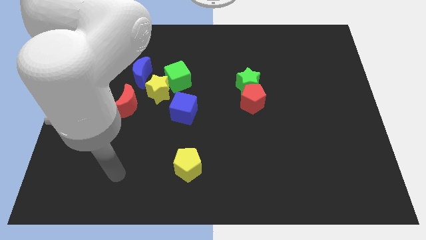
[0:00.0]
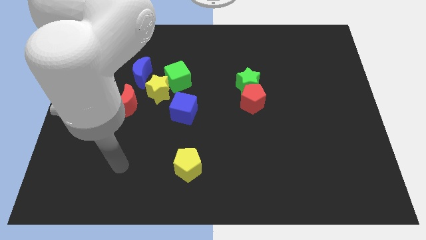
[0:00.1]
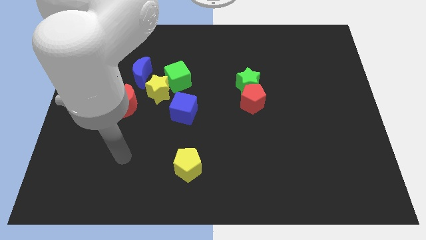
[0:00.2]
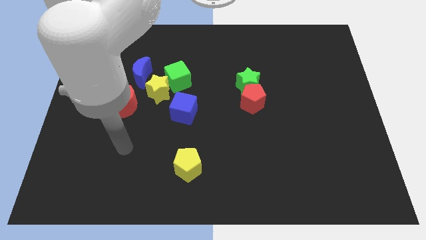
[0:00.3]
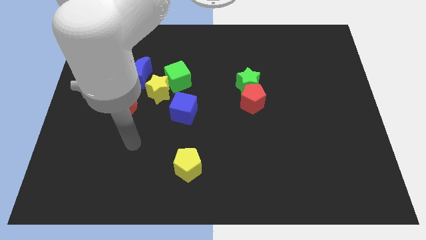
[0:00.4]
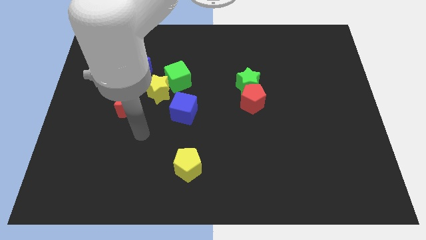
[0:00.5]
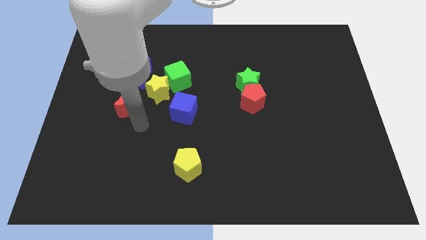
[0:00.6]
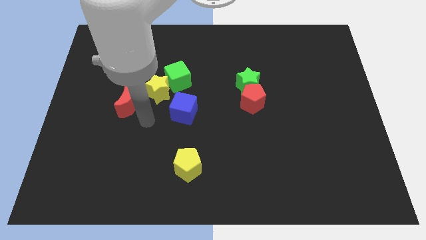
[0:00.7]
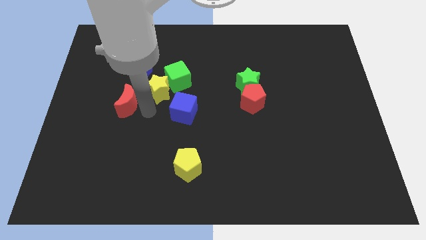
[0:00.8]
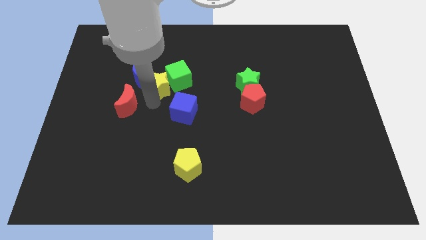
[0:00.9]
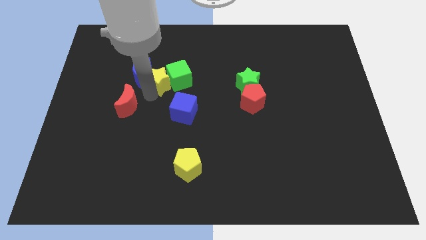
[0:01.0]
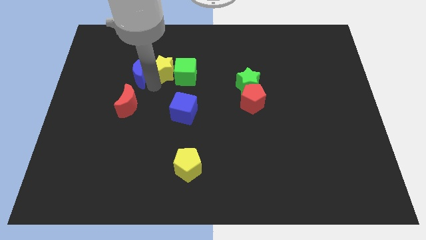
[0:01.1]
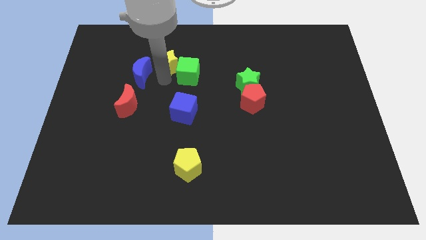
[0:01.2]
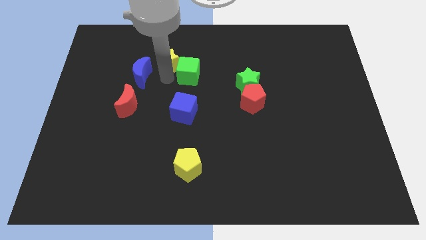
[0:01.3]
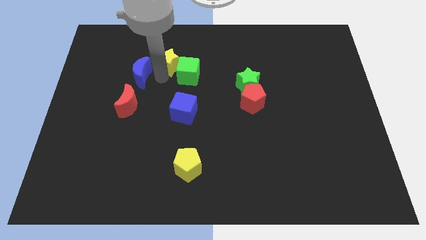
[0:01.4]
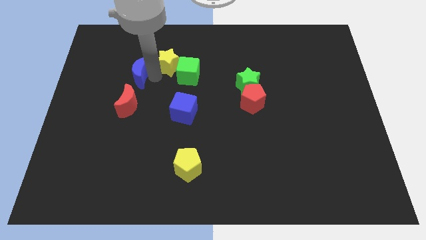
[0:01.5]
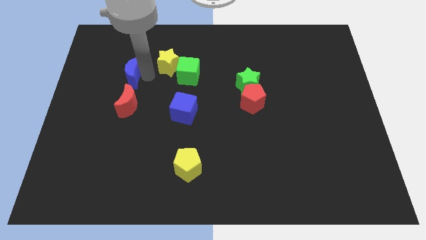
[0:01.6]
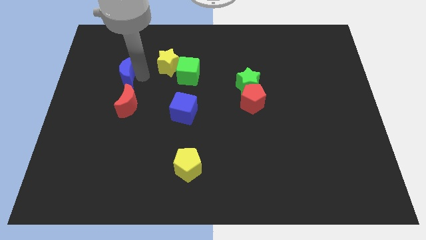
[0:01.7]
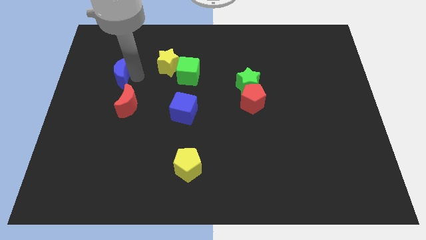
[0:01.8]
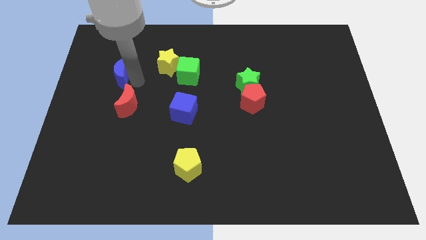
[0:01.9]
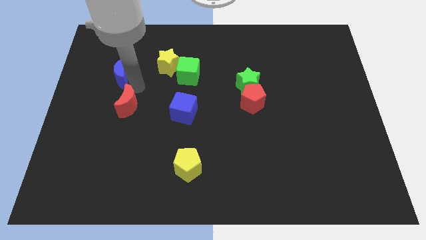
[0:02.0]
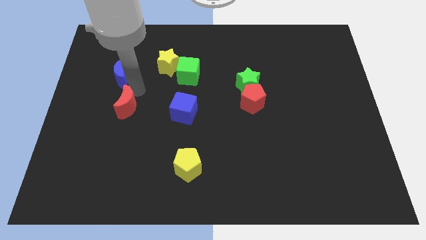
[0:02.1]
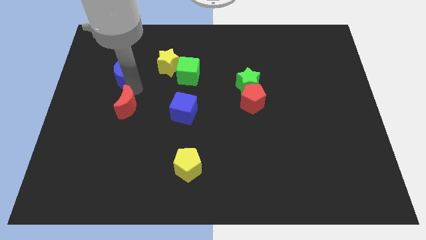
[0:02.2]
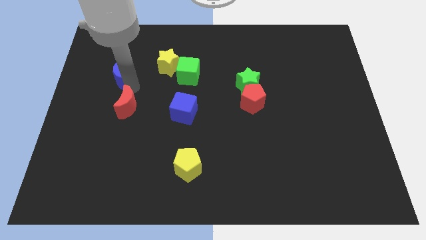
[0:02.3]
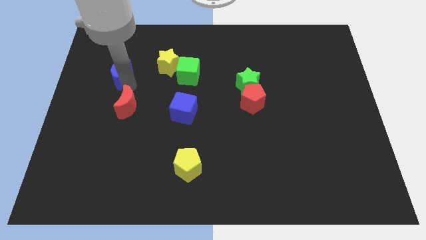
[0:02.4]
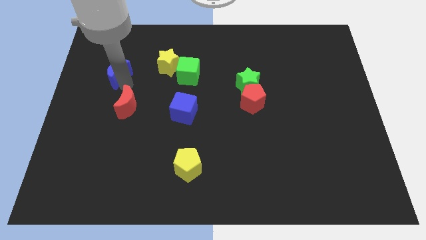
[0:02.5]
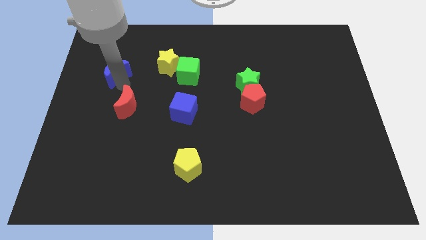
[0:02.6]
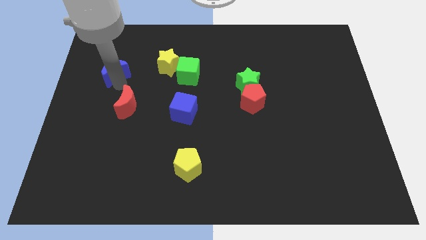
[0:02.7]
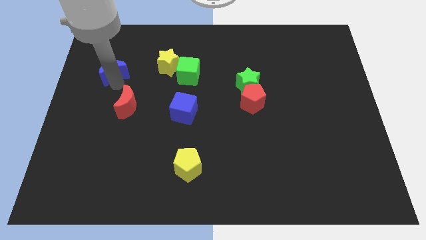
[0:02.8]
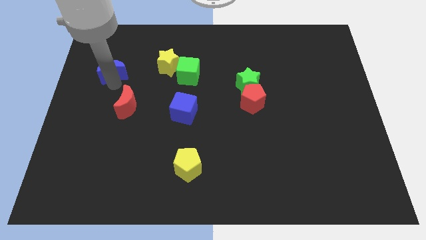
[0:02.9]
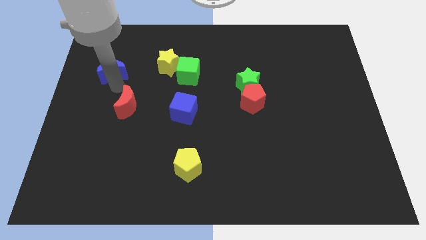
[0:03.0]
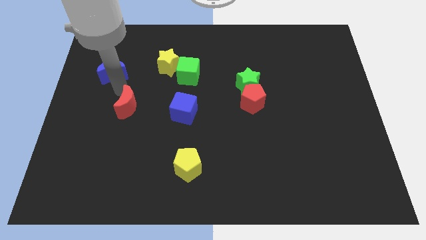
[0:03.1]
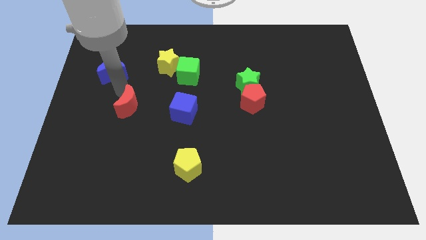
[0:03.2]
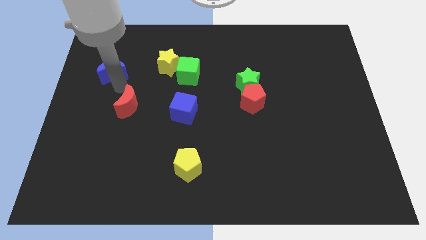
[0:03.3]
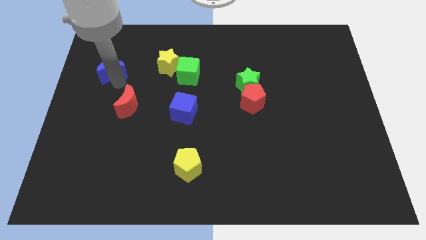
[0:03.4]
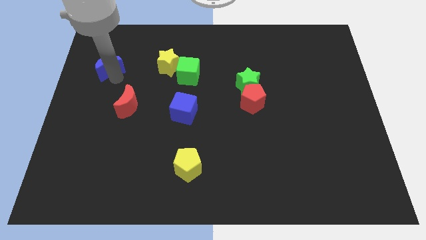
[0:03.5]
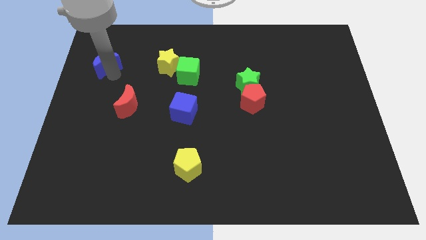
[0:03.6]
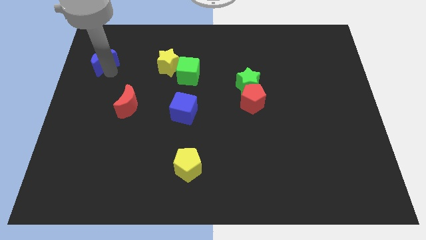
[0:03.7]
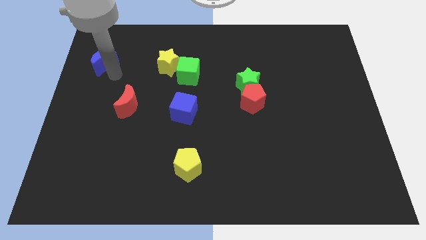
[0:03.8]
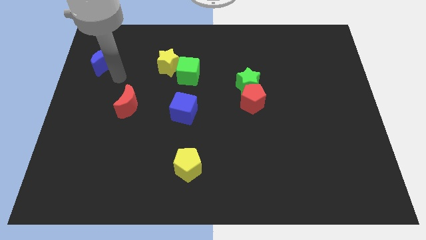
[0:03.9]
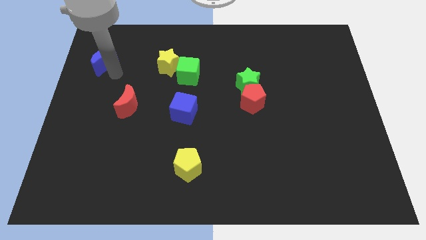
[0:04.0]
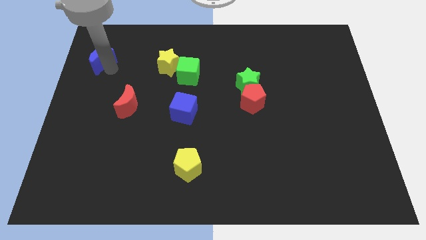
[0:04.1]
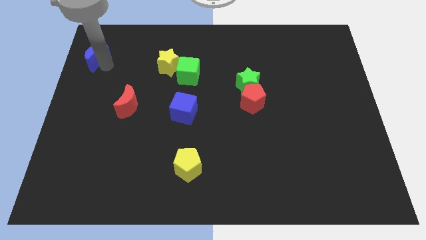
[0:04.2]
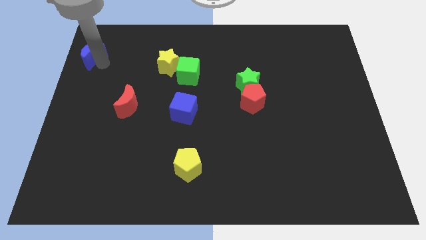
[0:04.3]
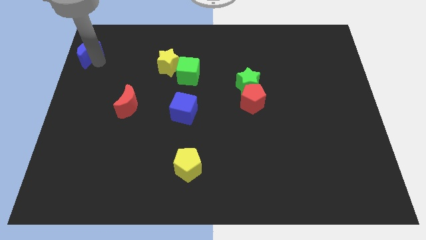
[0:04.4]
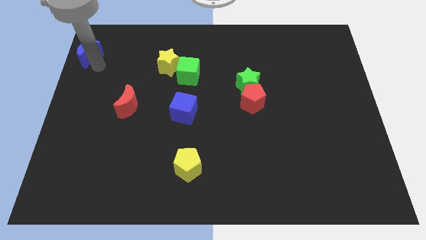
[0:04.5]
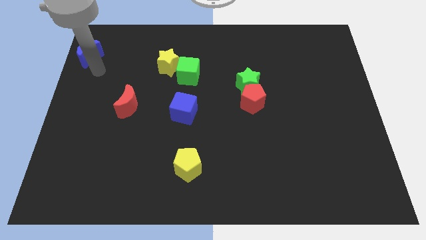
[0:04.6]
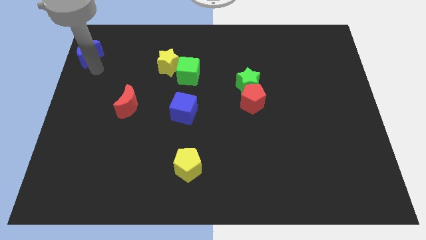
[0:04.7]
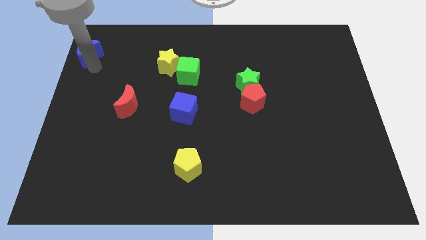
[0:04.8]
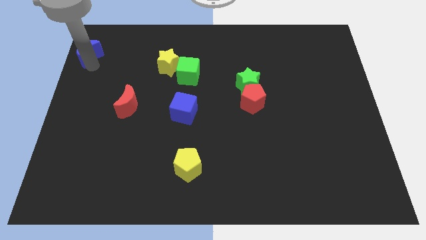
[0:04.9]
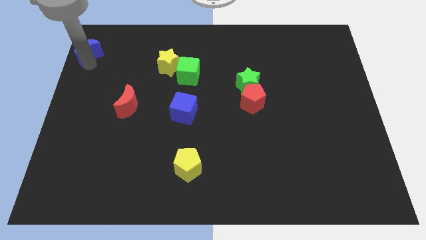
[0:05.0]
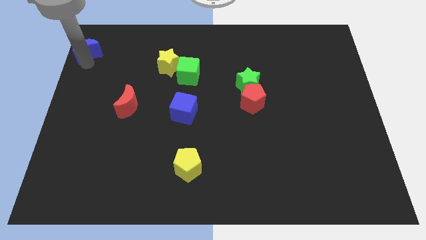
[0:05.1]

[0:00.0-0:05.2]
slide the blue moon to the top left of the board

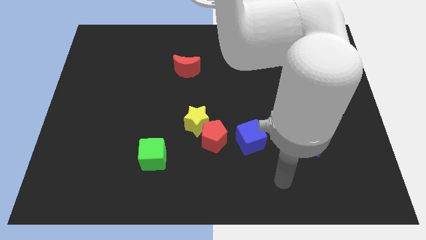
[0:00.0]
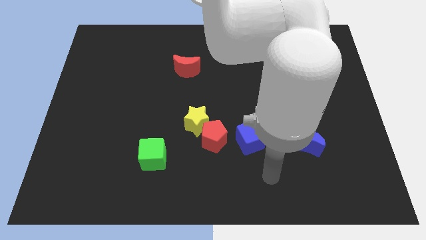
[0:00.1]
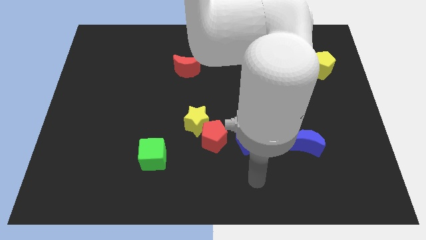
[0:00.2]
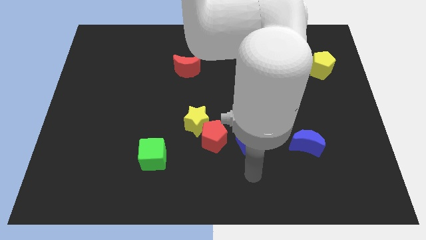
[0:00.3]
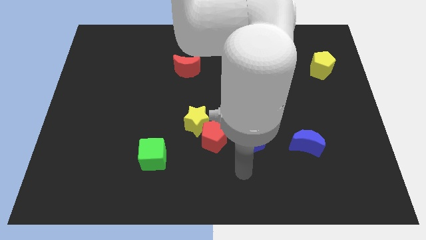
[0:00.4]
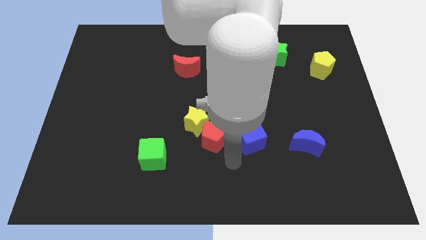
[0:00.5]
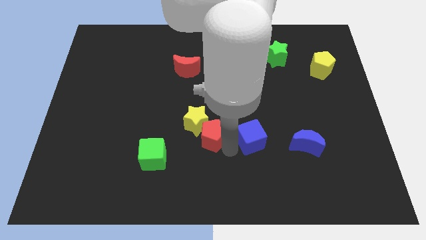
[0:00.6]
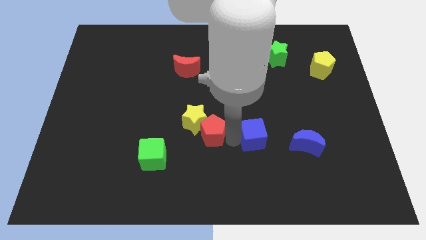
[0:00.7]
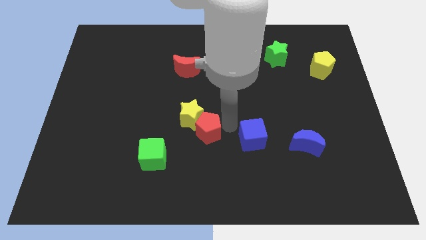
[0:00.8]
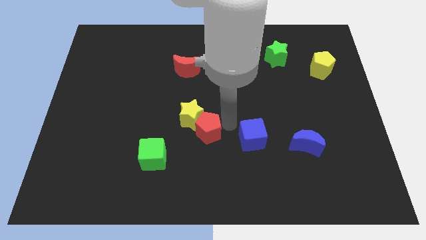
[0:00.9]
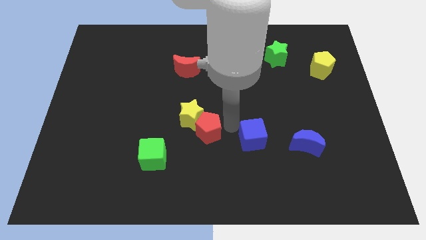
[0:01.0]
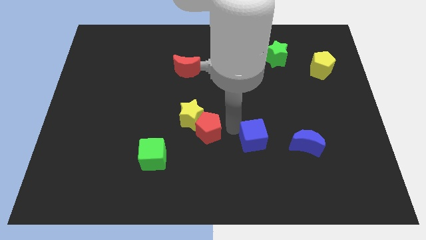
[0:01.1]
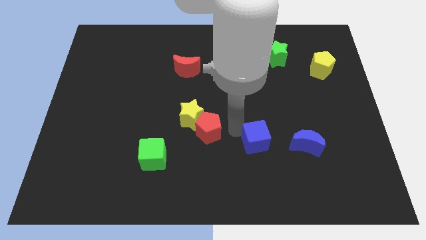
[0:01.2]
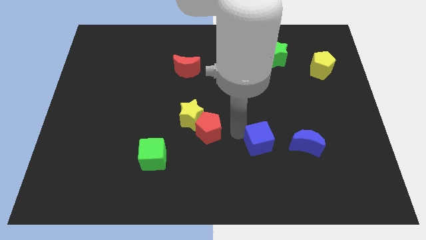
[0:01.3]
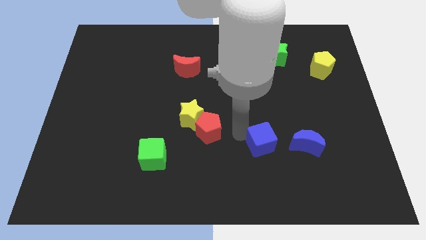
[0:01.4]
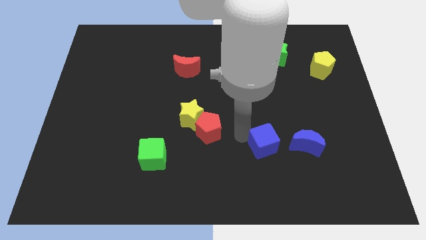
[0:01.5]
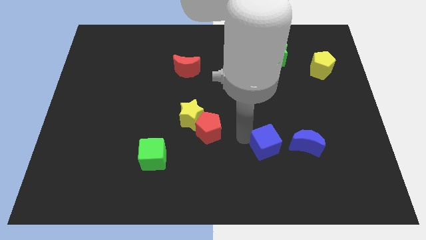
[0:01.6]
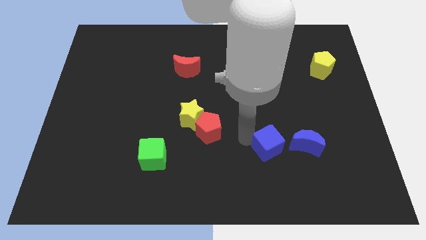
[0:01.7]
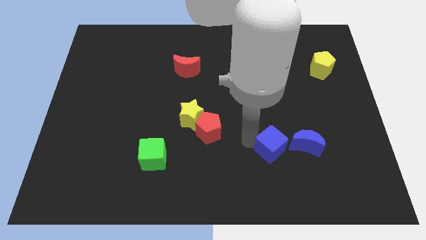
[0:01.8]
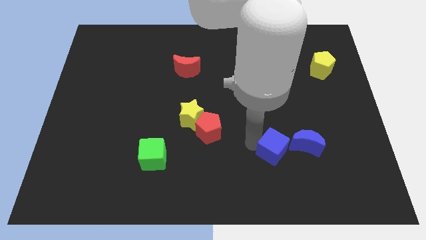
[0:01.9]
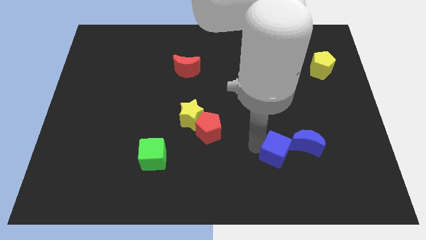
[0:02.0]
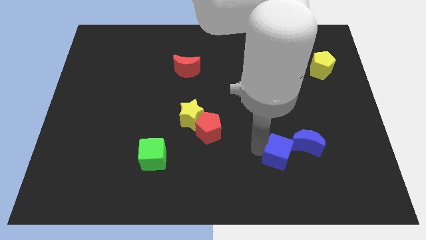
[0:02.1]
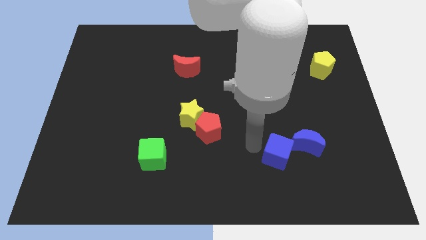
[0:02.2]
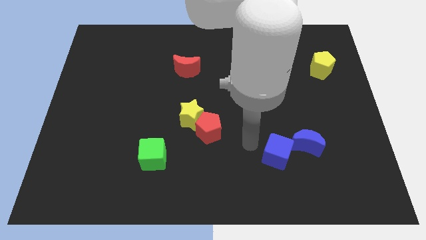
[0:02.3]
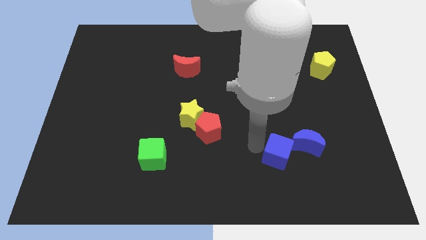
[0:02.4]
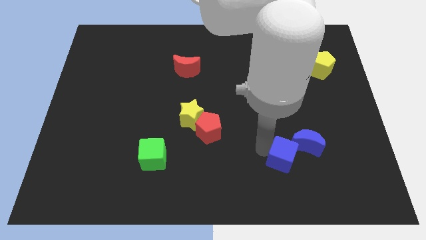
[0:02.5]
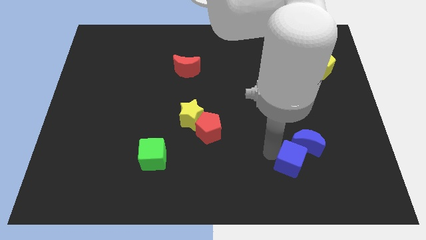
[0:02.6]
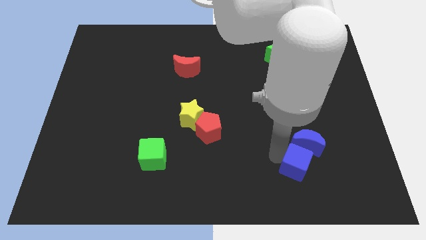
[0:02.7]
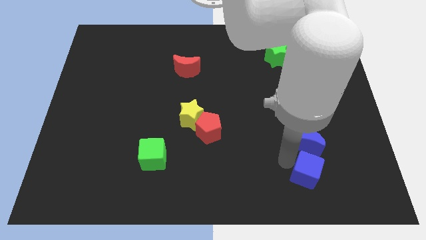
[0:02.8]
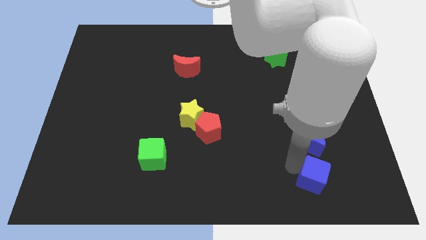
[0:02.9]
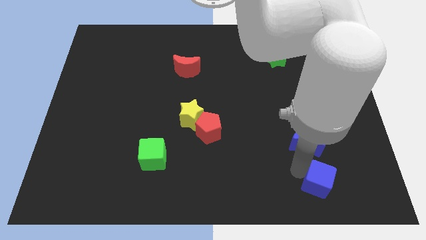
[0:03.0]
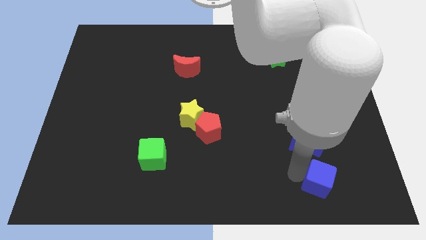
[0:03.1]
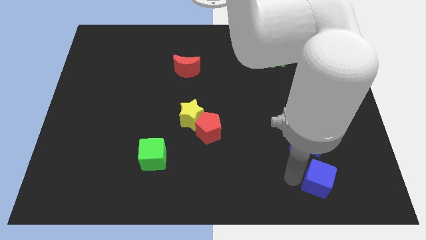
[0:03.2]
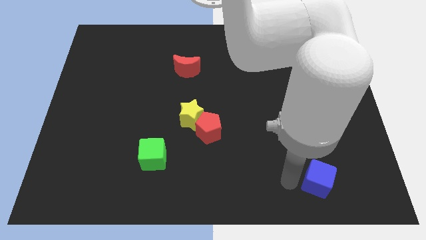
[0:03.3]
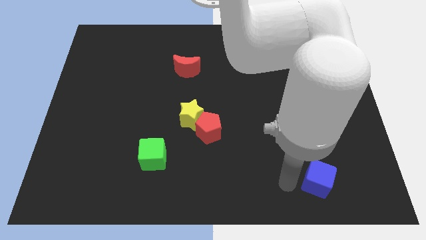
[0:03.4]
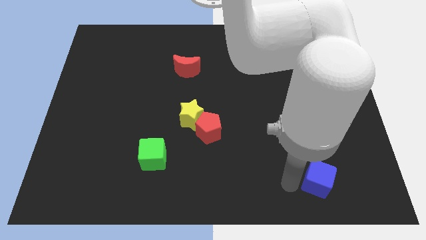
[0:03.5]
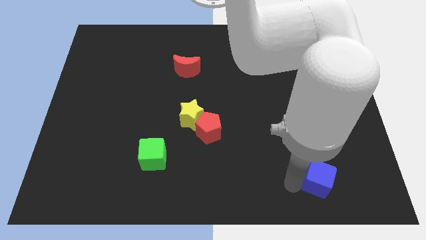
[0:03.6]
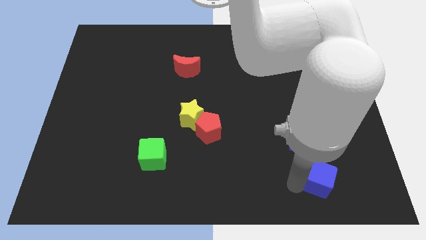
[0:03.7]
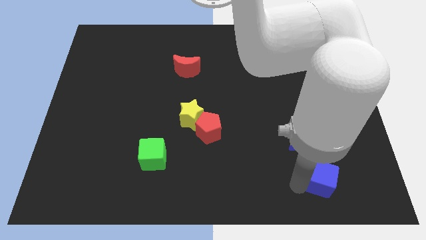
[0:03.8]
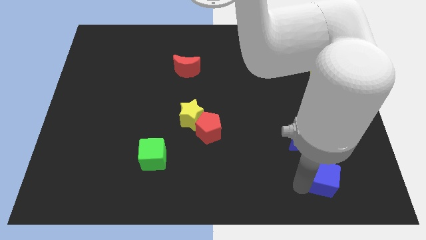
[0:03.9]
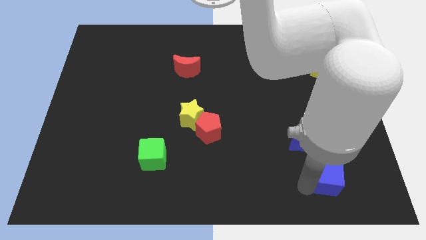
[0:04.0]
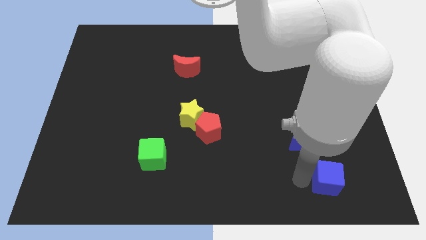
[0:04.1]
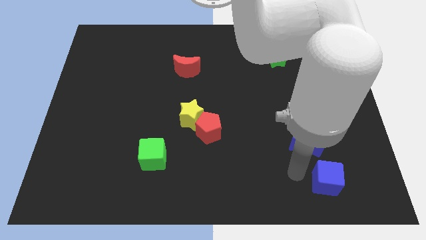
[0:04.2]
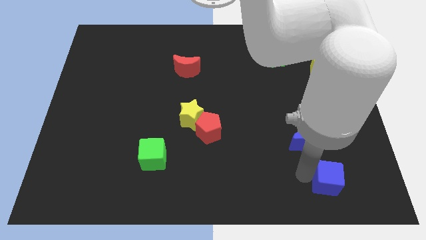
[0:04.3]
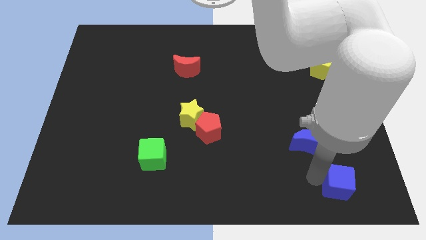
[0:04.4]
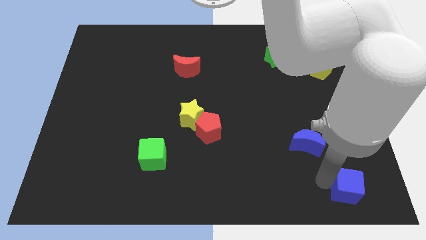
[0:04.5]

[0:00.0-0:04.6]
put the blue cube to the bottom right corner
